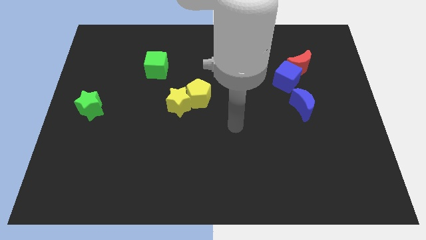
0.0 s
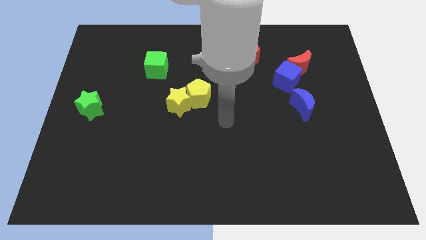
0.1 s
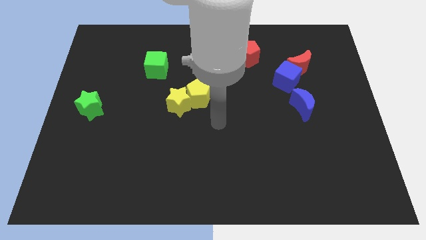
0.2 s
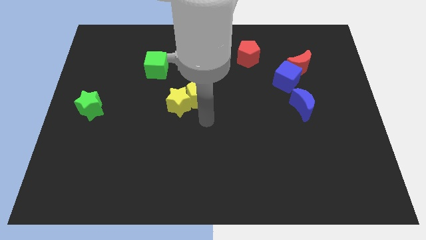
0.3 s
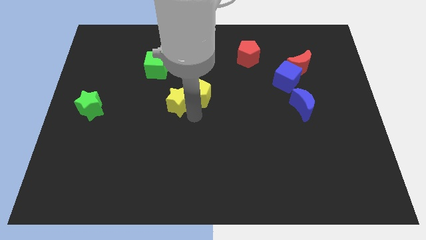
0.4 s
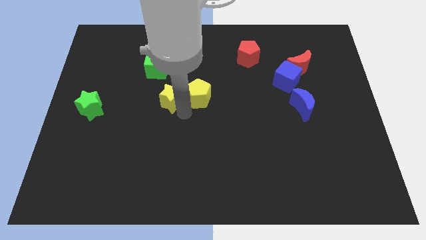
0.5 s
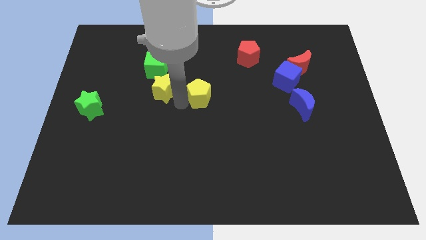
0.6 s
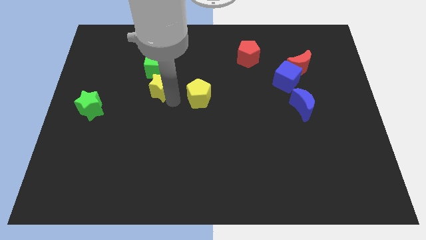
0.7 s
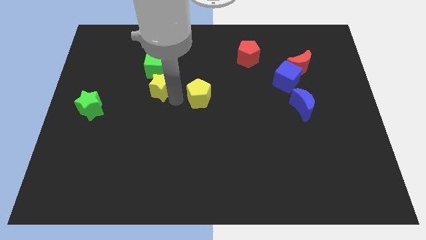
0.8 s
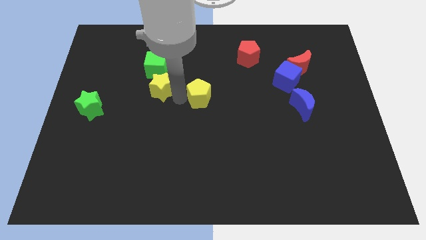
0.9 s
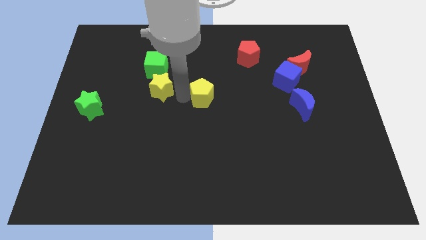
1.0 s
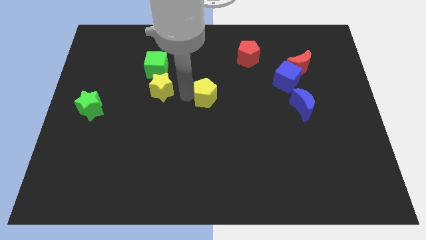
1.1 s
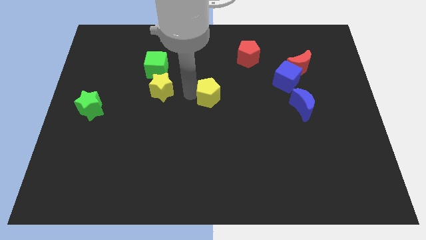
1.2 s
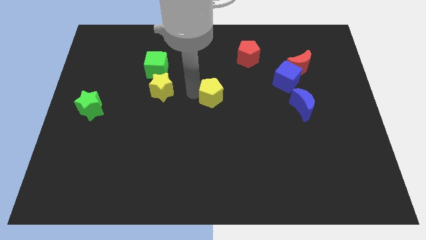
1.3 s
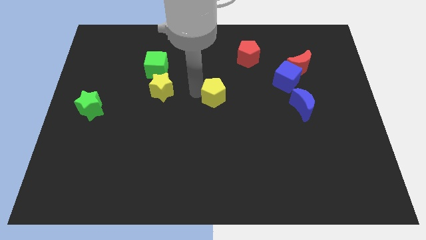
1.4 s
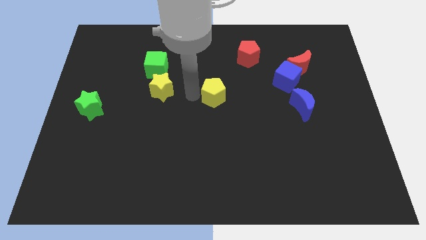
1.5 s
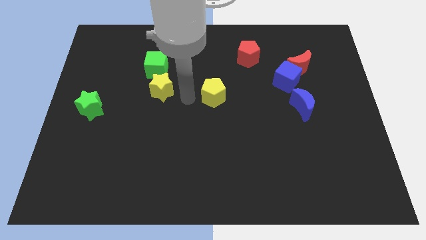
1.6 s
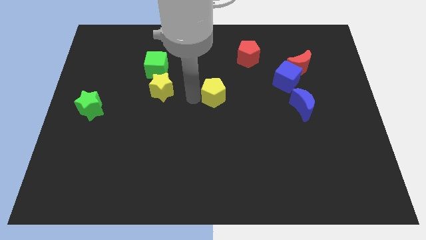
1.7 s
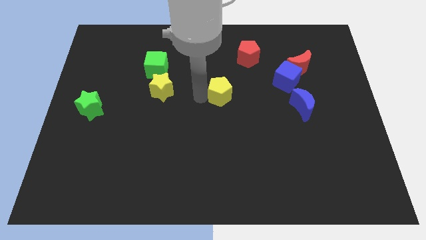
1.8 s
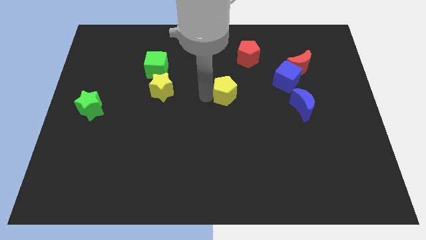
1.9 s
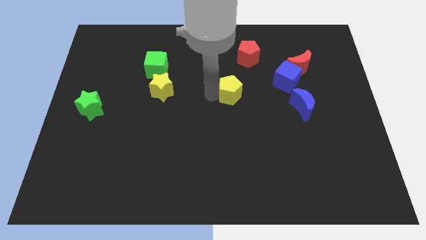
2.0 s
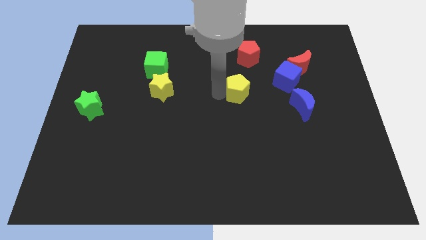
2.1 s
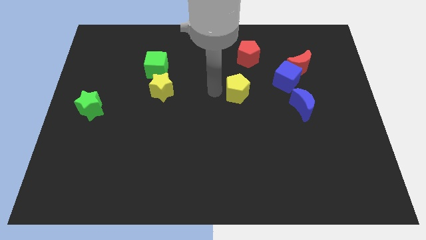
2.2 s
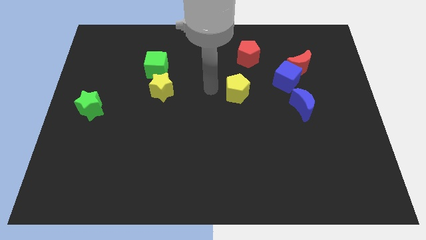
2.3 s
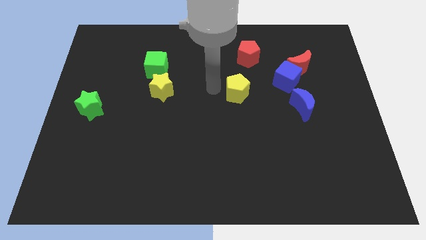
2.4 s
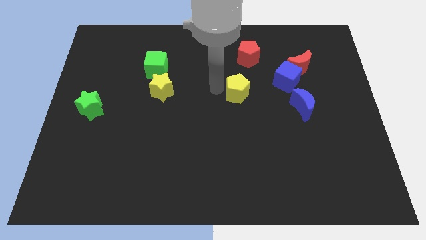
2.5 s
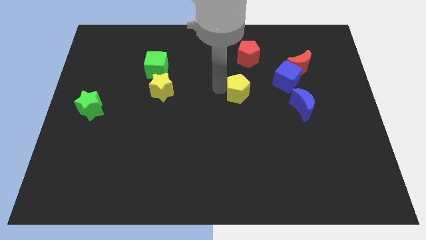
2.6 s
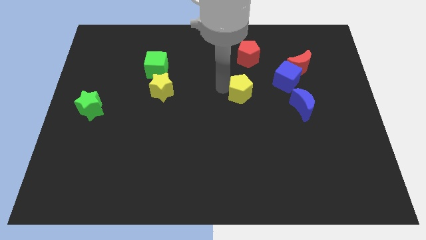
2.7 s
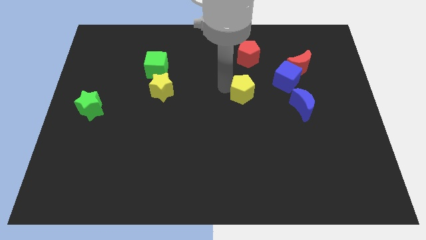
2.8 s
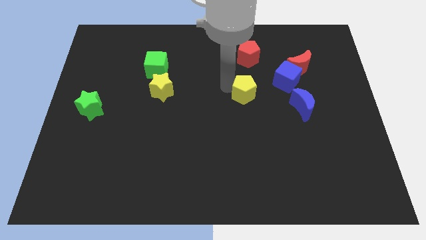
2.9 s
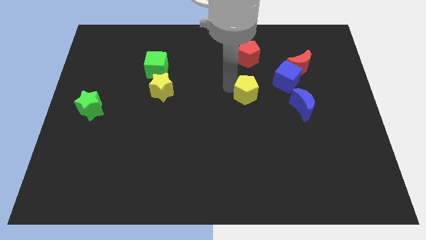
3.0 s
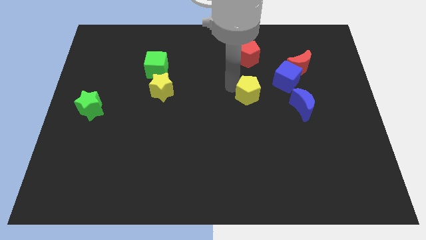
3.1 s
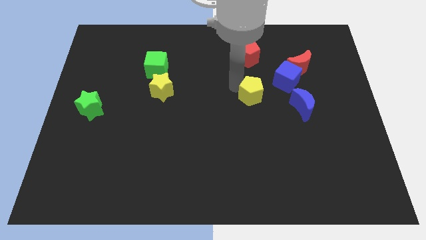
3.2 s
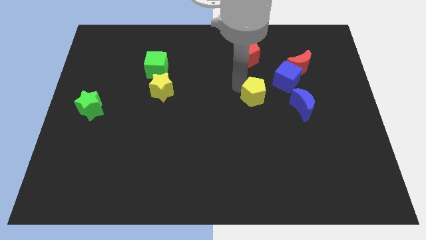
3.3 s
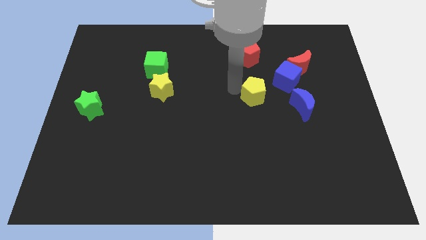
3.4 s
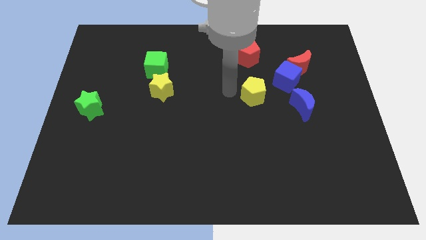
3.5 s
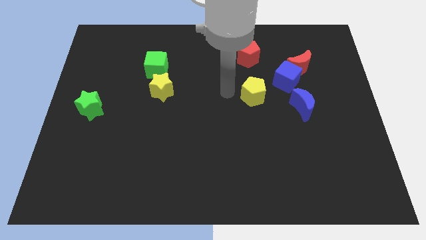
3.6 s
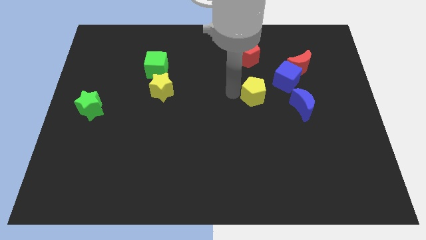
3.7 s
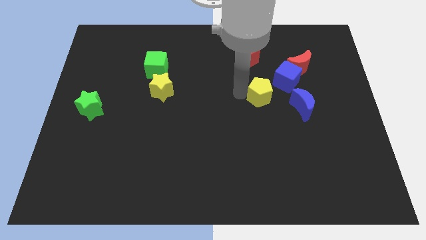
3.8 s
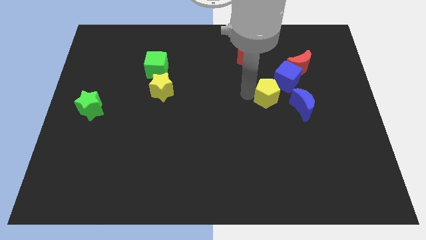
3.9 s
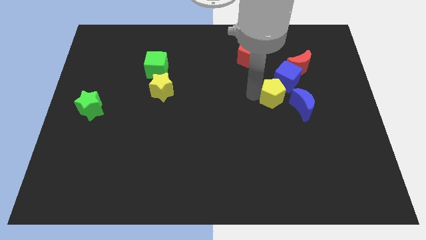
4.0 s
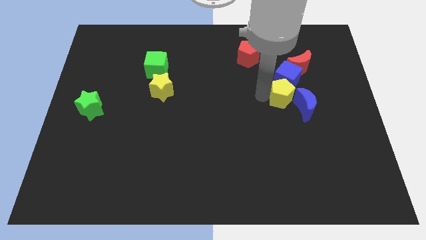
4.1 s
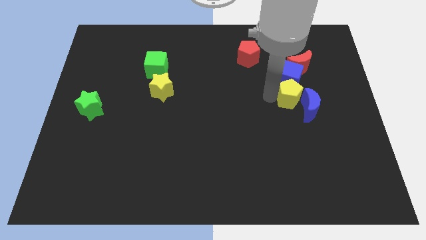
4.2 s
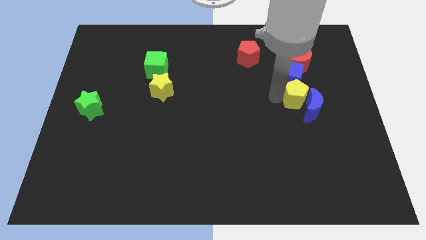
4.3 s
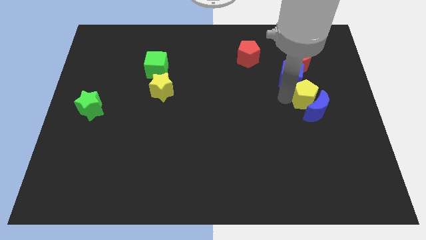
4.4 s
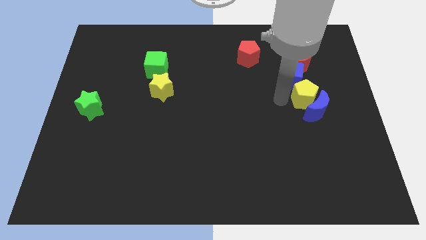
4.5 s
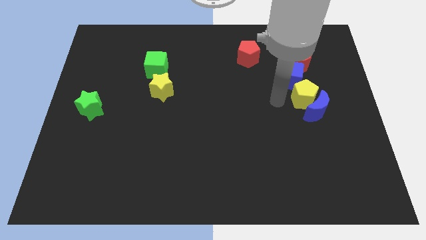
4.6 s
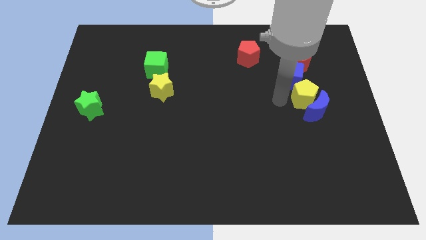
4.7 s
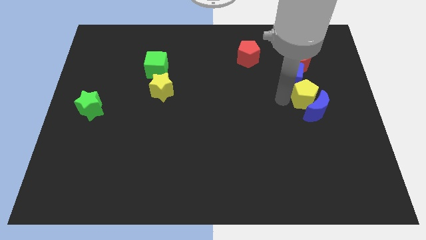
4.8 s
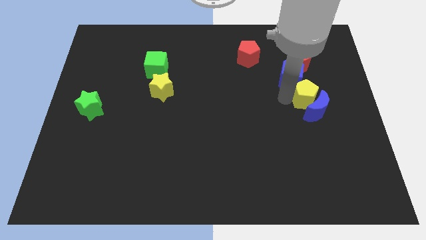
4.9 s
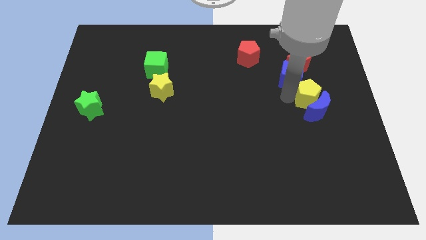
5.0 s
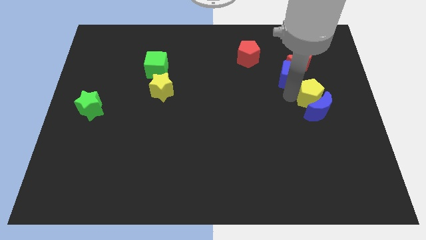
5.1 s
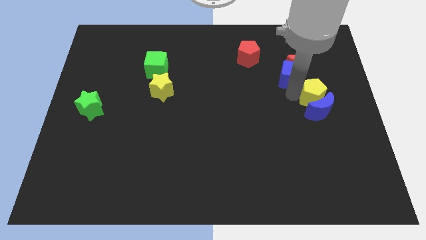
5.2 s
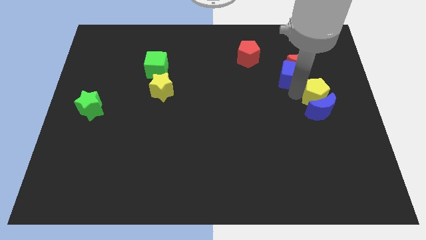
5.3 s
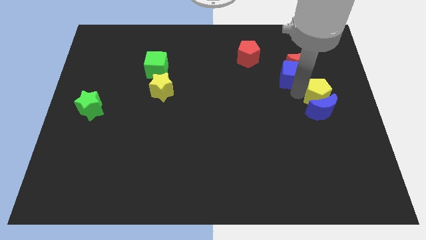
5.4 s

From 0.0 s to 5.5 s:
push the yellow pentagon to the right side of the board

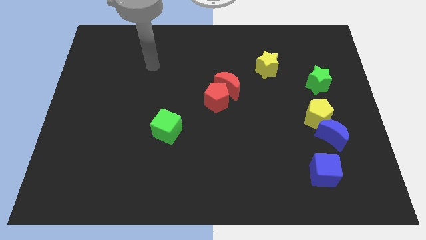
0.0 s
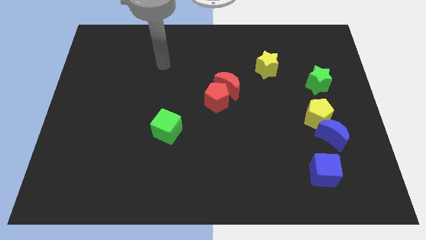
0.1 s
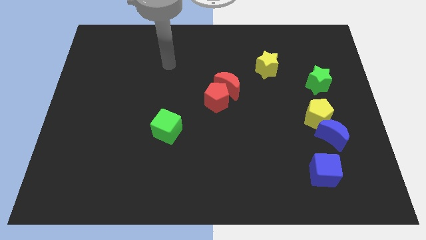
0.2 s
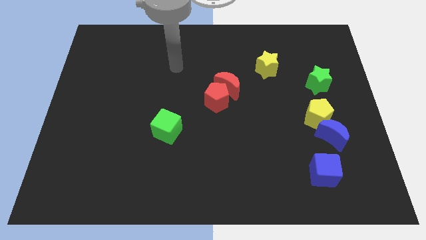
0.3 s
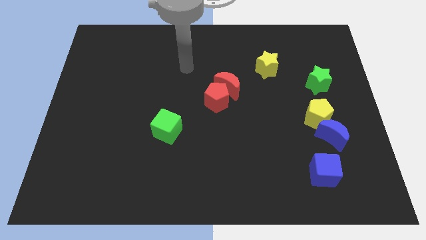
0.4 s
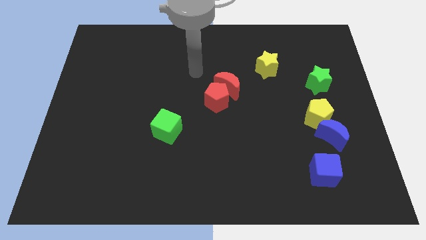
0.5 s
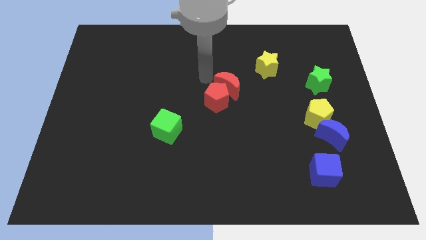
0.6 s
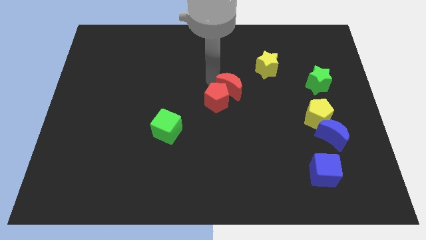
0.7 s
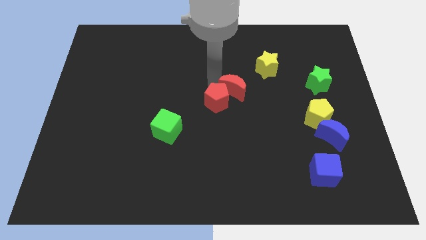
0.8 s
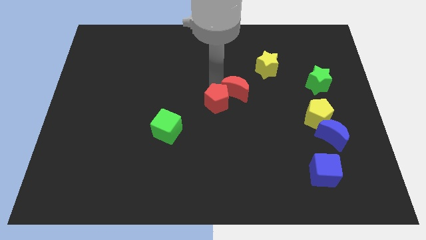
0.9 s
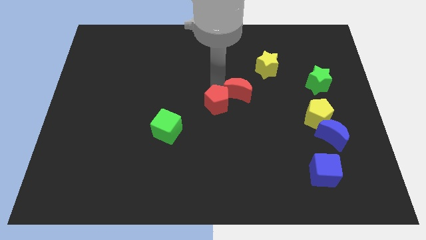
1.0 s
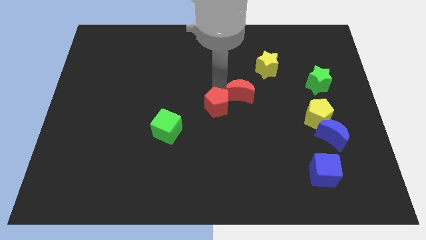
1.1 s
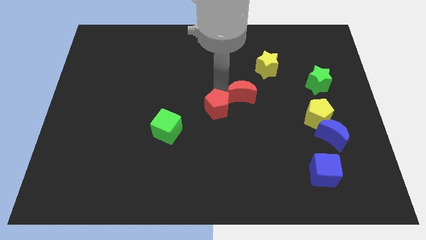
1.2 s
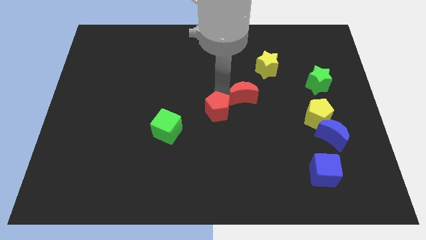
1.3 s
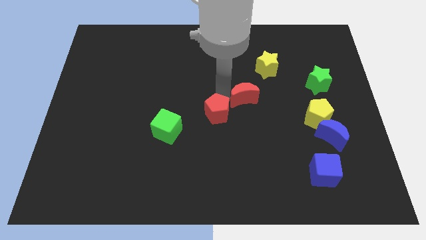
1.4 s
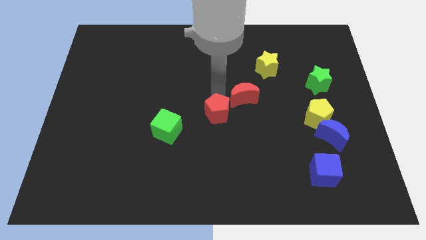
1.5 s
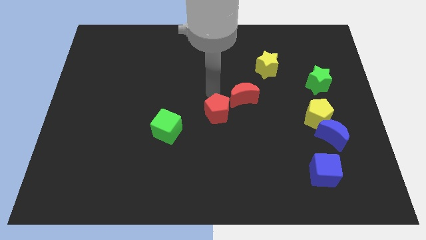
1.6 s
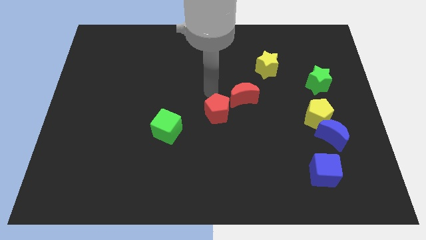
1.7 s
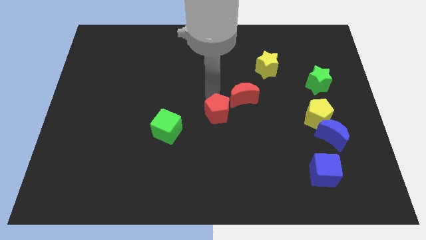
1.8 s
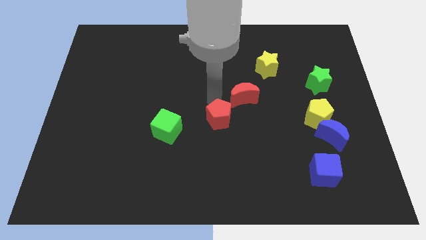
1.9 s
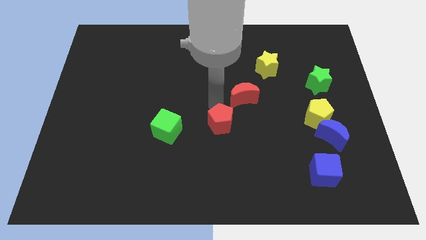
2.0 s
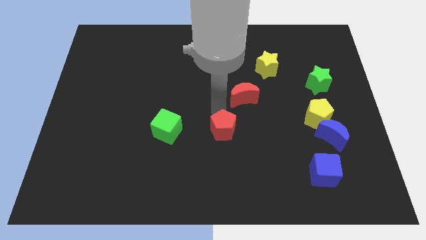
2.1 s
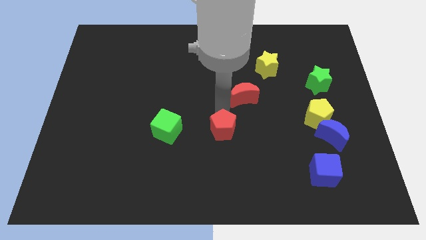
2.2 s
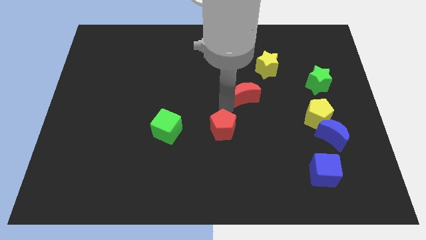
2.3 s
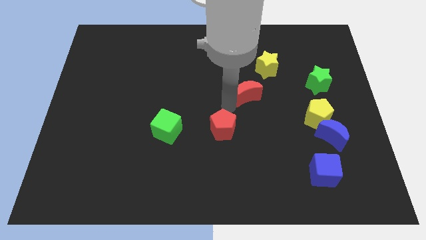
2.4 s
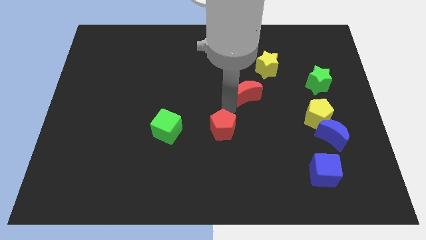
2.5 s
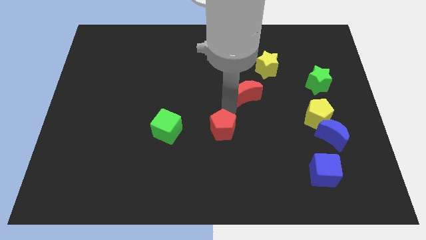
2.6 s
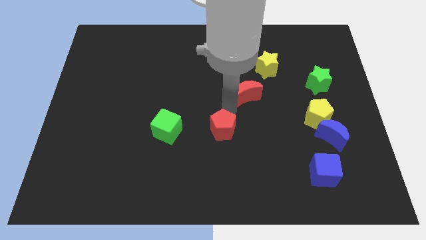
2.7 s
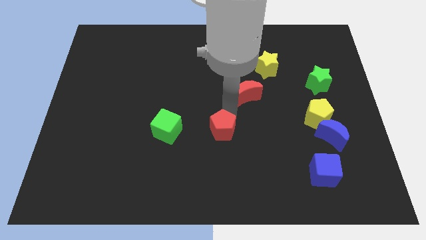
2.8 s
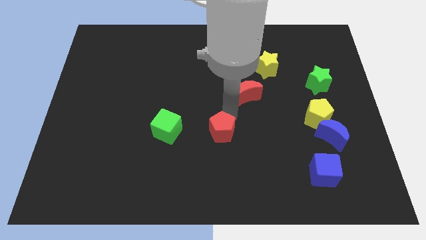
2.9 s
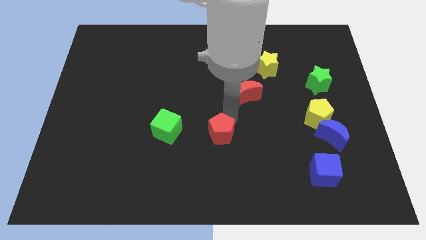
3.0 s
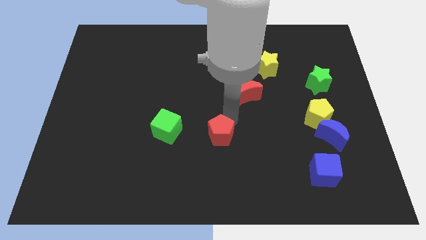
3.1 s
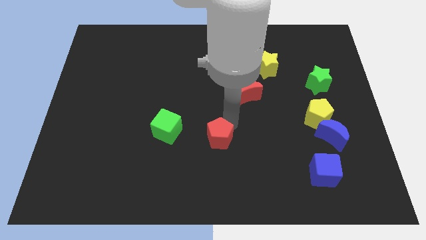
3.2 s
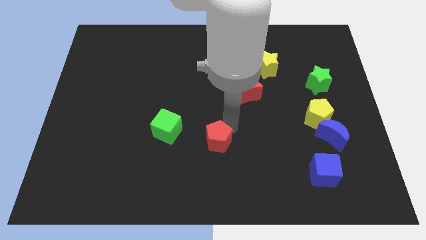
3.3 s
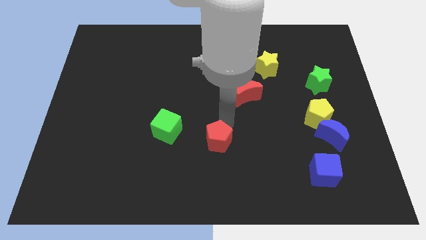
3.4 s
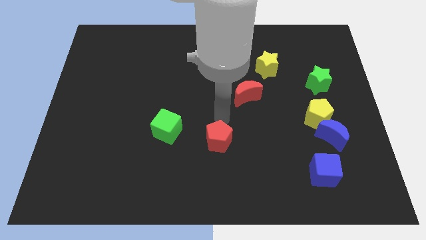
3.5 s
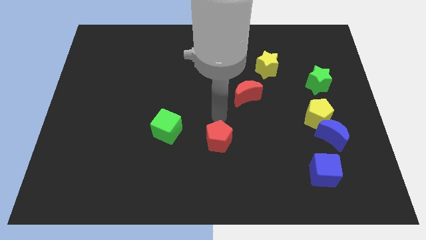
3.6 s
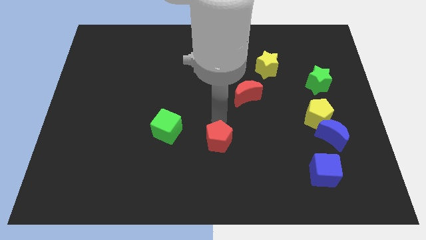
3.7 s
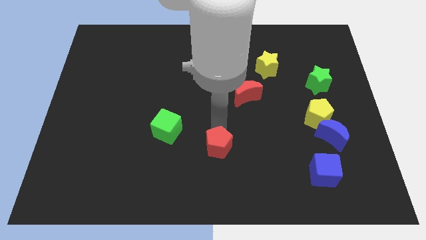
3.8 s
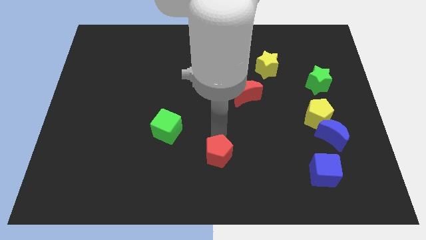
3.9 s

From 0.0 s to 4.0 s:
slide the red pentagon to the bottom side
